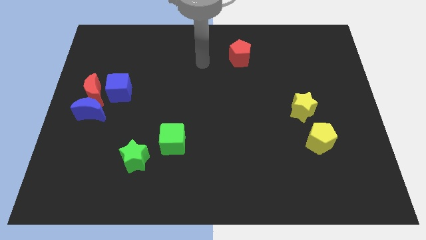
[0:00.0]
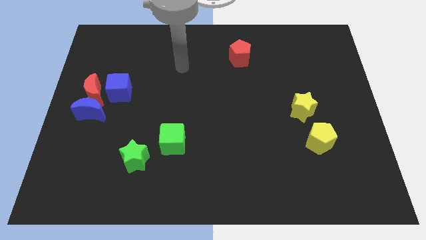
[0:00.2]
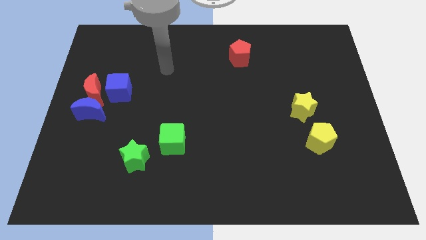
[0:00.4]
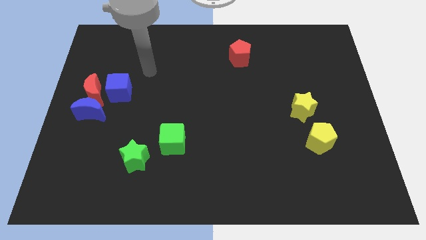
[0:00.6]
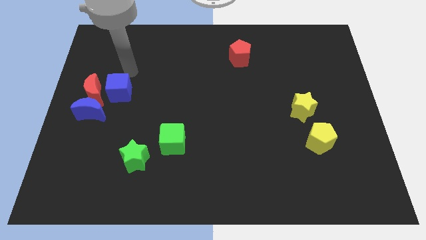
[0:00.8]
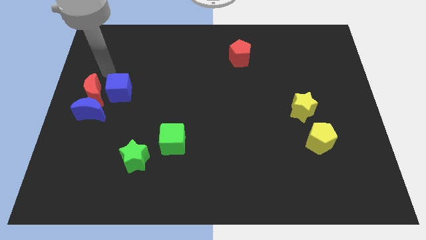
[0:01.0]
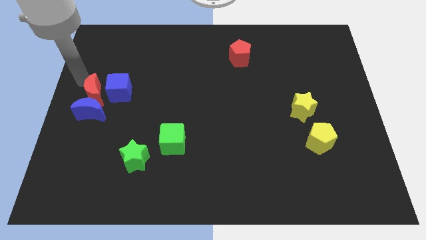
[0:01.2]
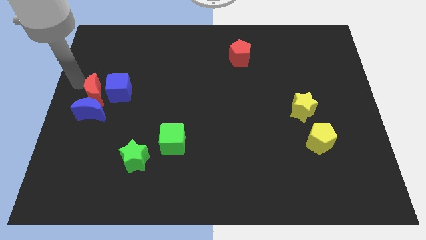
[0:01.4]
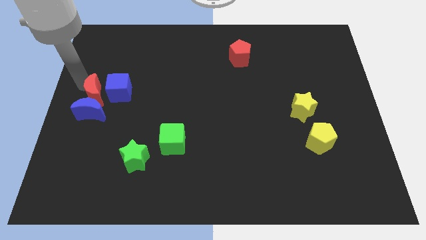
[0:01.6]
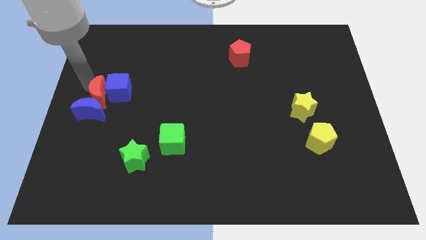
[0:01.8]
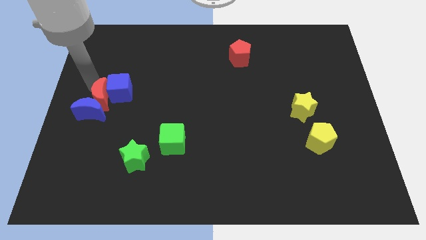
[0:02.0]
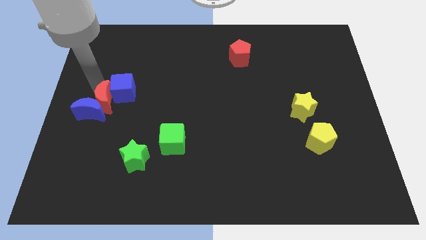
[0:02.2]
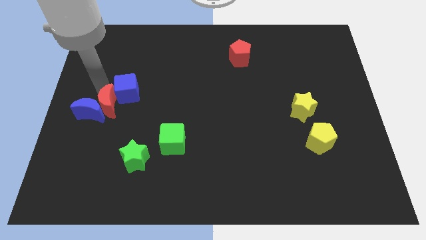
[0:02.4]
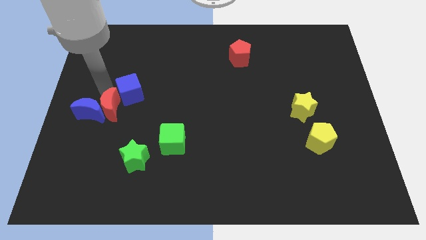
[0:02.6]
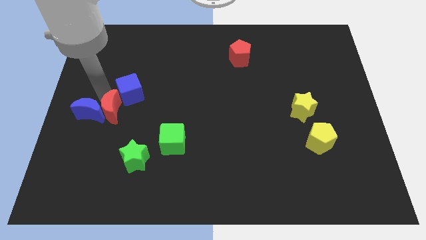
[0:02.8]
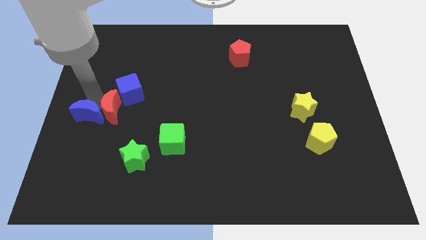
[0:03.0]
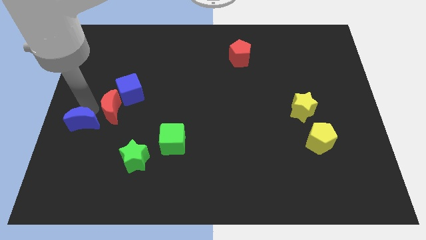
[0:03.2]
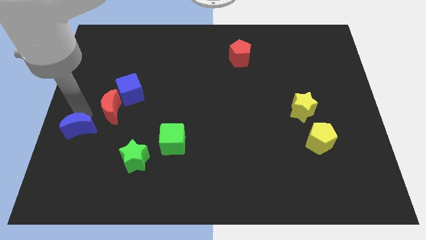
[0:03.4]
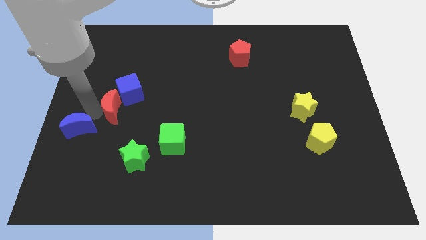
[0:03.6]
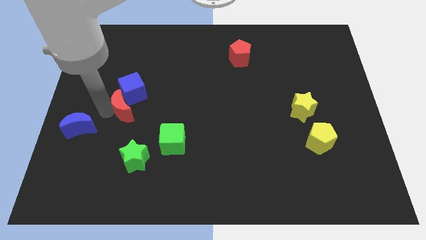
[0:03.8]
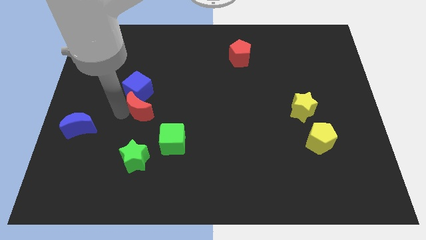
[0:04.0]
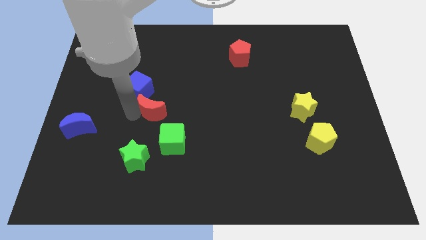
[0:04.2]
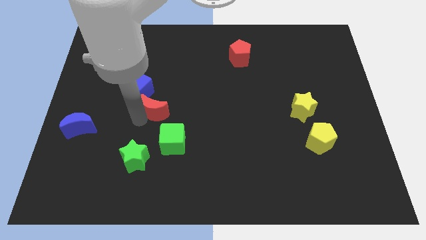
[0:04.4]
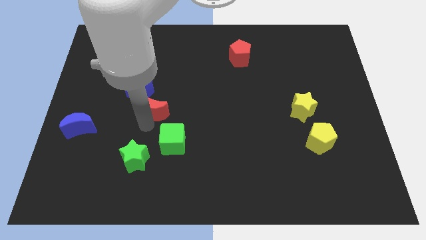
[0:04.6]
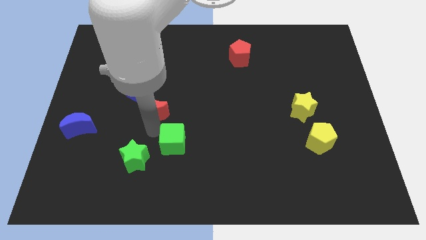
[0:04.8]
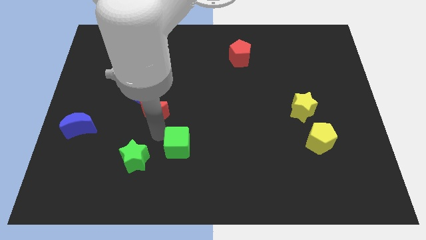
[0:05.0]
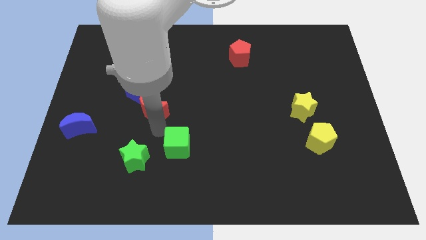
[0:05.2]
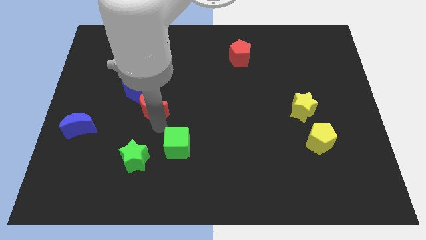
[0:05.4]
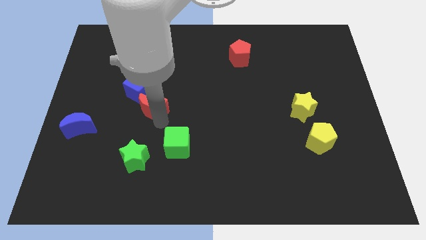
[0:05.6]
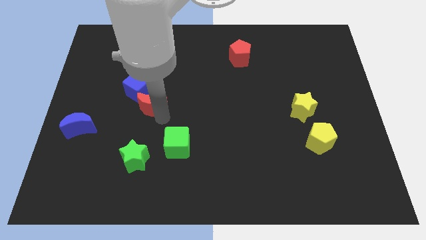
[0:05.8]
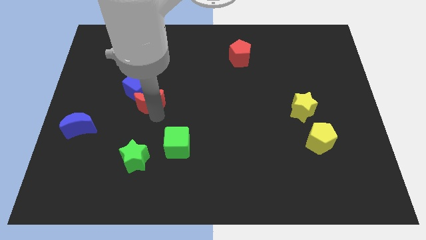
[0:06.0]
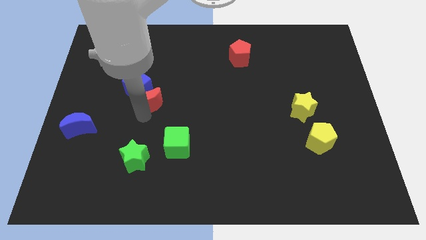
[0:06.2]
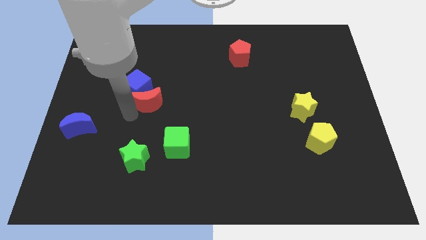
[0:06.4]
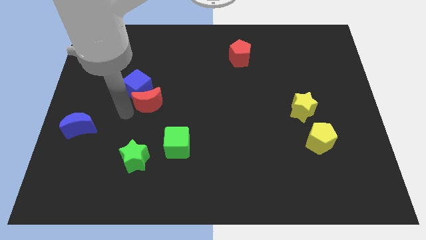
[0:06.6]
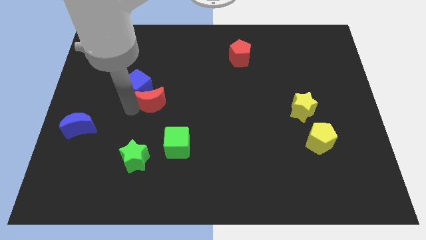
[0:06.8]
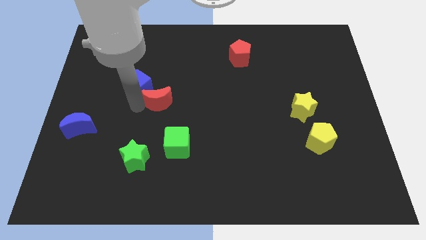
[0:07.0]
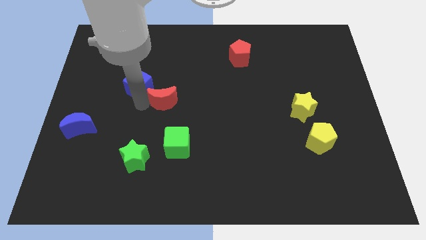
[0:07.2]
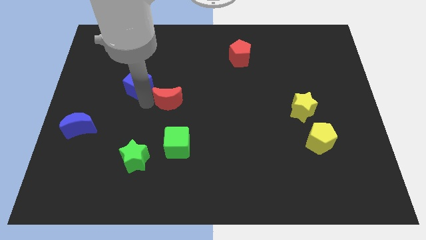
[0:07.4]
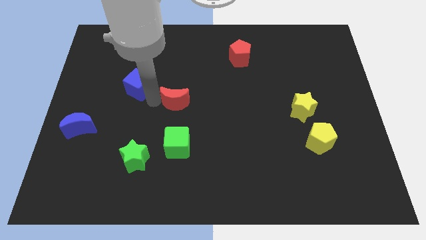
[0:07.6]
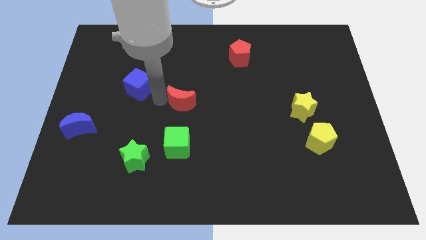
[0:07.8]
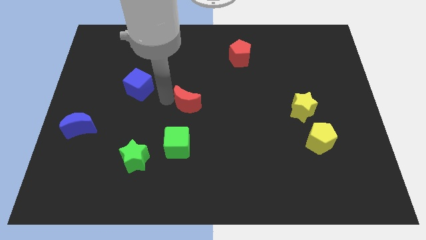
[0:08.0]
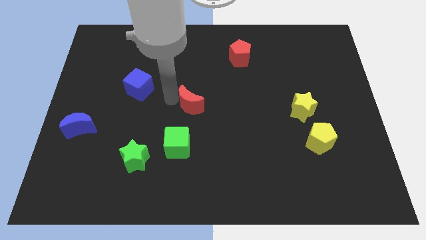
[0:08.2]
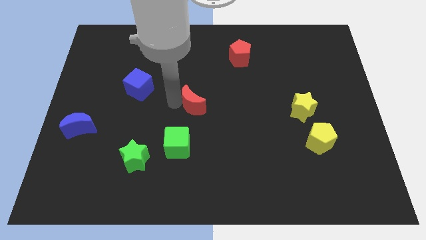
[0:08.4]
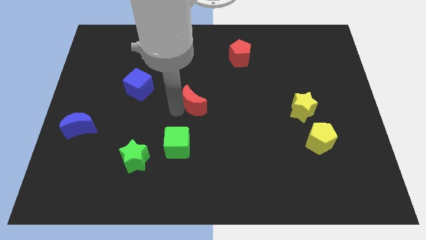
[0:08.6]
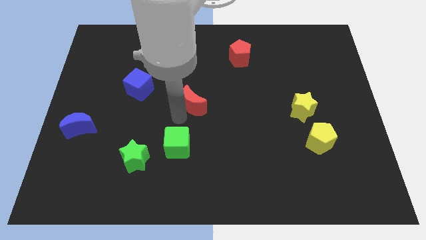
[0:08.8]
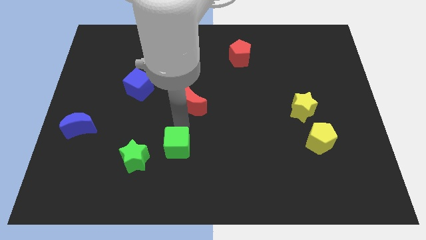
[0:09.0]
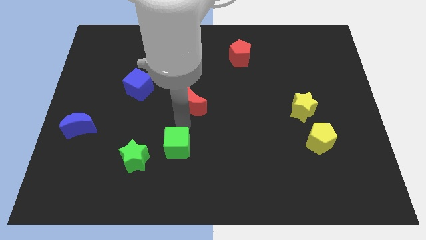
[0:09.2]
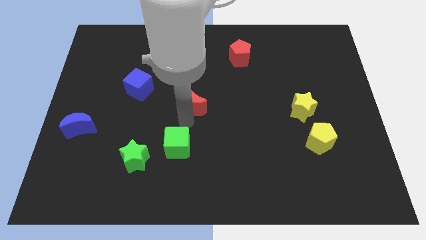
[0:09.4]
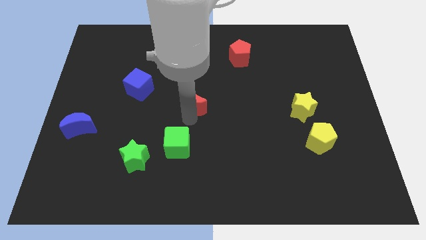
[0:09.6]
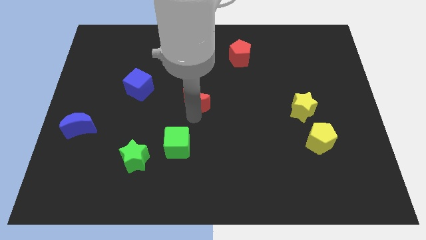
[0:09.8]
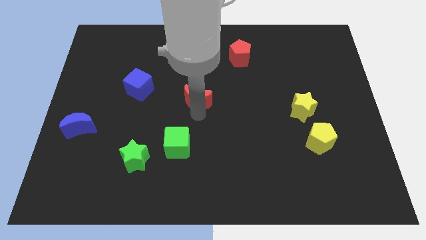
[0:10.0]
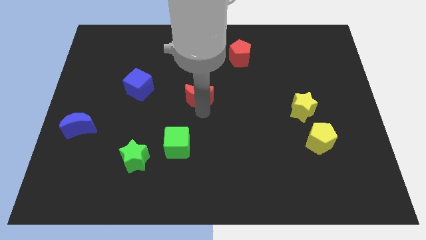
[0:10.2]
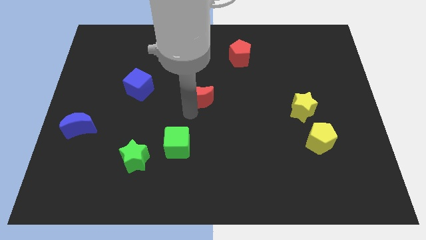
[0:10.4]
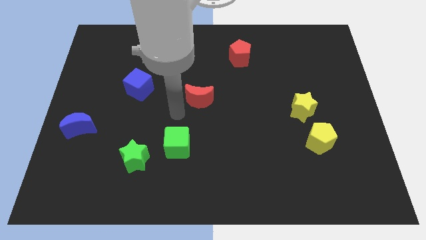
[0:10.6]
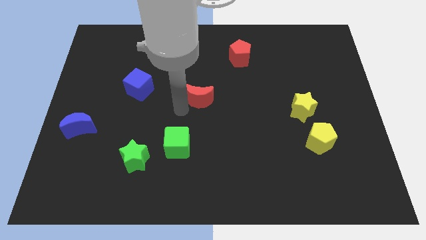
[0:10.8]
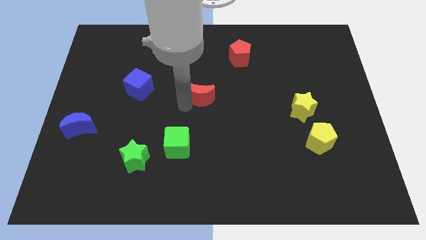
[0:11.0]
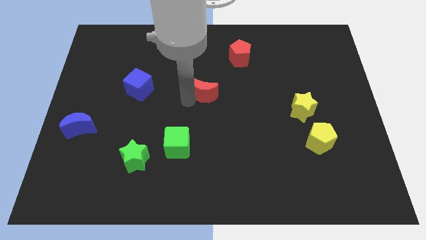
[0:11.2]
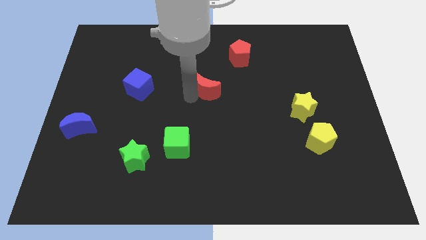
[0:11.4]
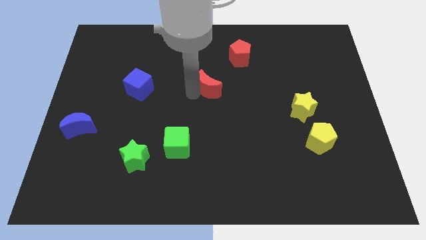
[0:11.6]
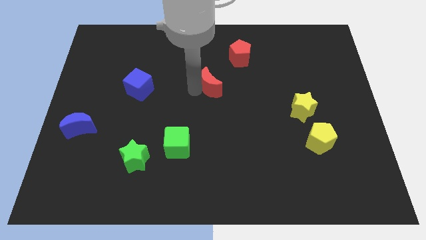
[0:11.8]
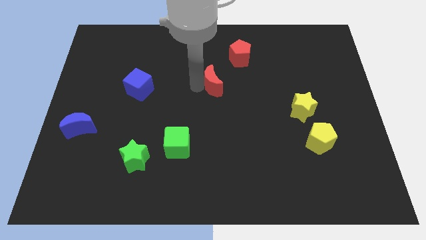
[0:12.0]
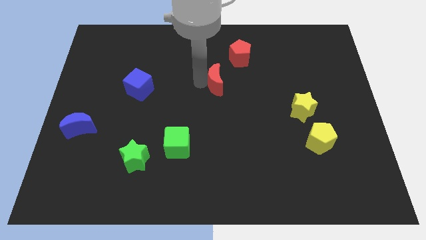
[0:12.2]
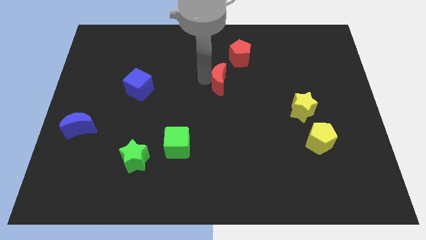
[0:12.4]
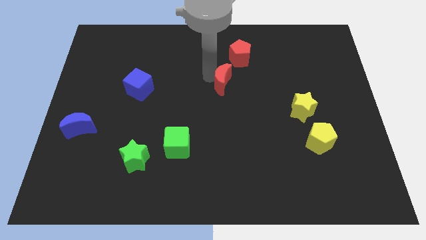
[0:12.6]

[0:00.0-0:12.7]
push the red moon to the bottom side of the red pentagon
